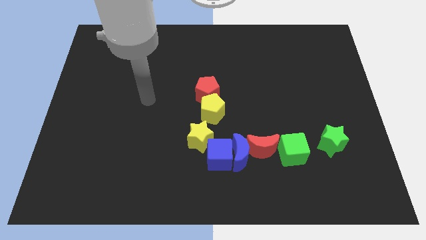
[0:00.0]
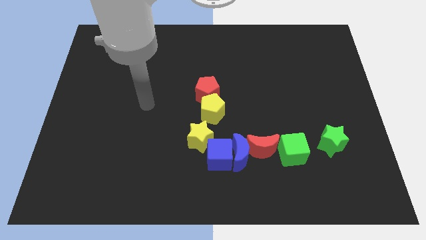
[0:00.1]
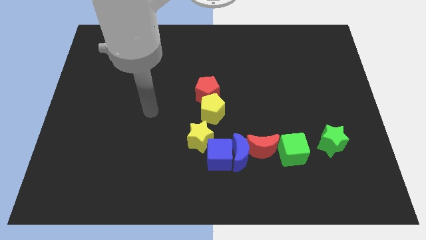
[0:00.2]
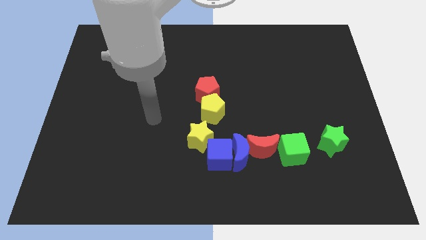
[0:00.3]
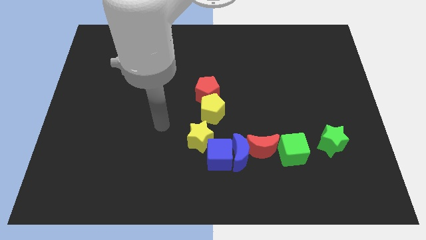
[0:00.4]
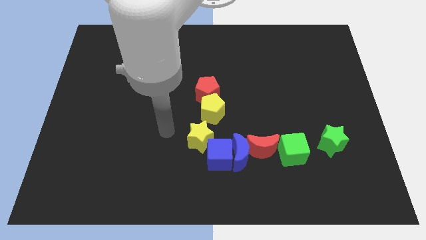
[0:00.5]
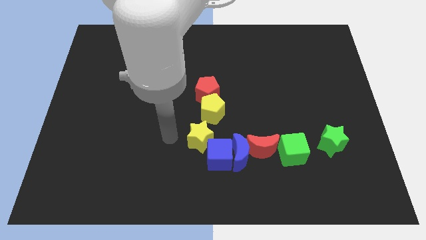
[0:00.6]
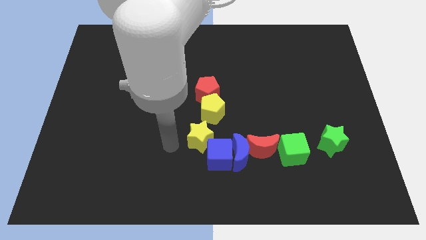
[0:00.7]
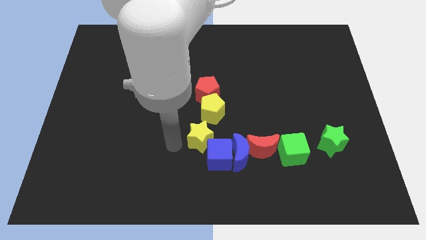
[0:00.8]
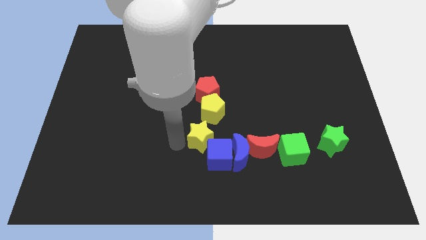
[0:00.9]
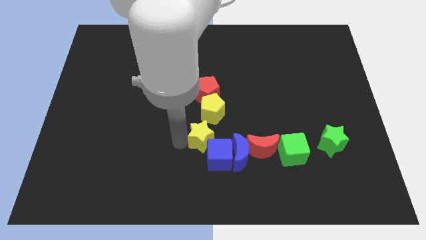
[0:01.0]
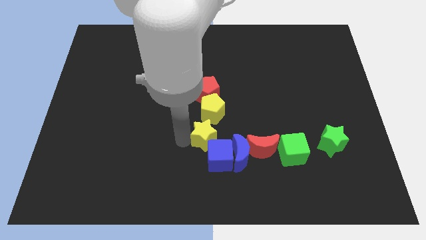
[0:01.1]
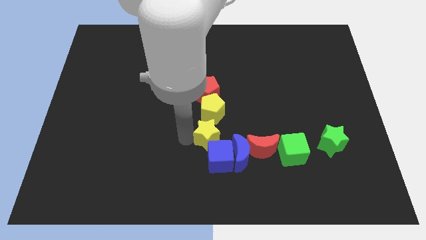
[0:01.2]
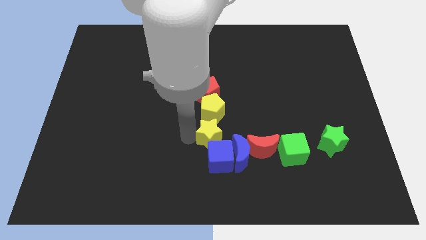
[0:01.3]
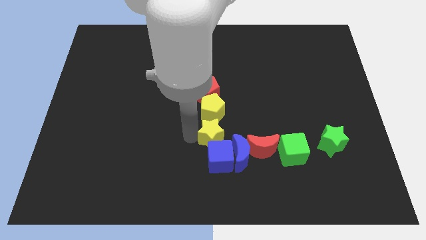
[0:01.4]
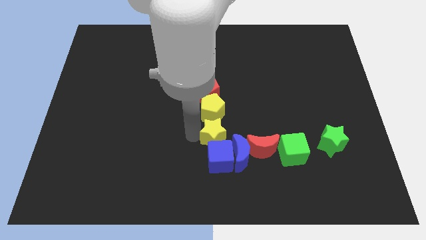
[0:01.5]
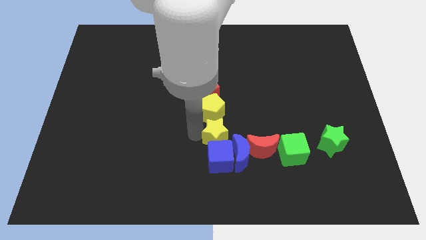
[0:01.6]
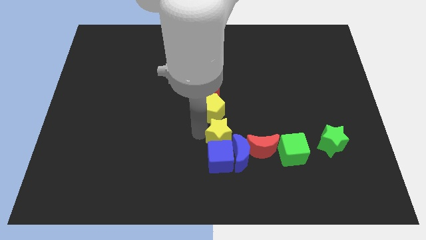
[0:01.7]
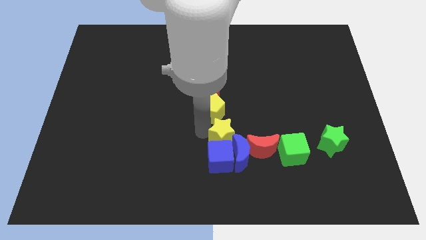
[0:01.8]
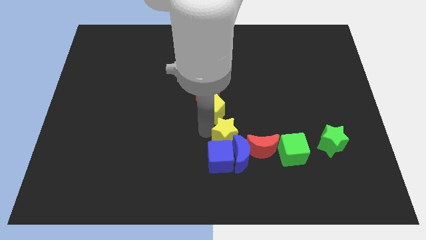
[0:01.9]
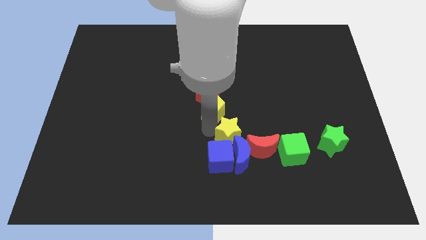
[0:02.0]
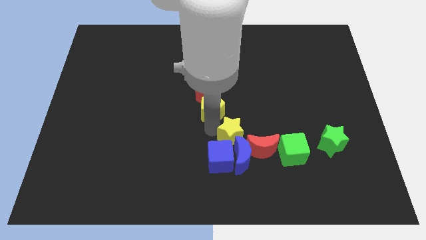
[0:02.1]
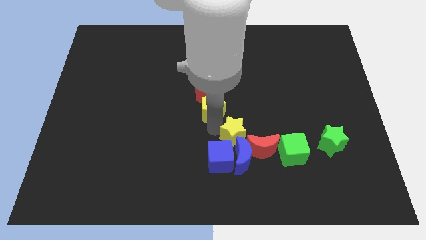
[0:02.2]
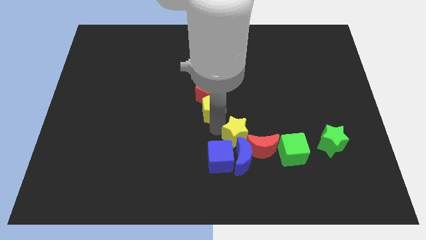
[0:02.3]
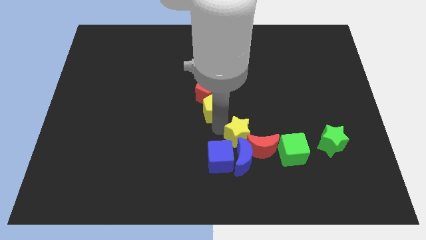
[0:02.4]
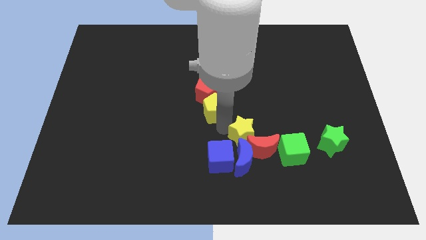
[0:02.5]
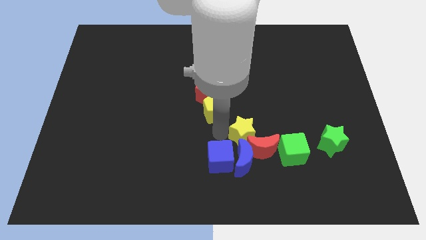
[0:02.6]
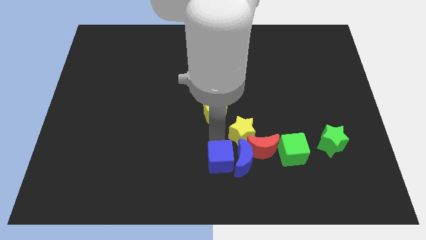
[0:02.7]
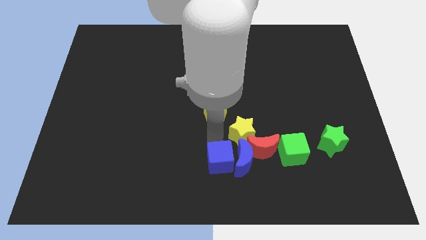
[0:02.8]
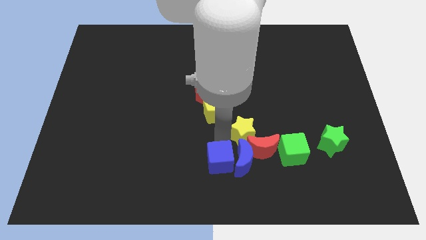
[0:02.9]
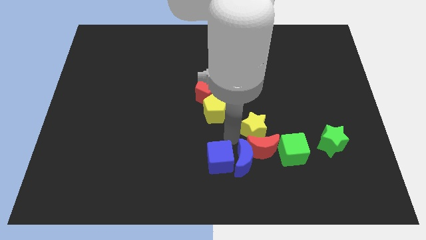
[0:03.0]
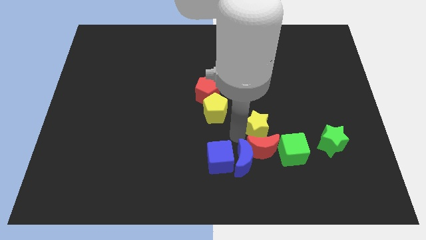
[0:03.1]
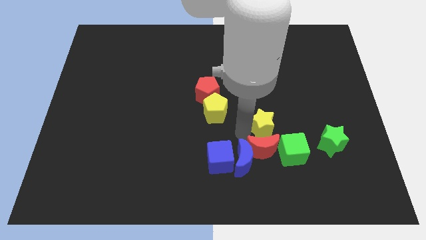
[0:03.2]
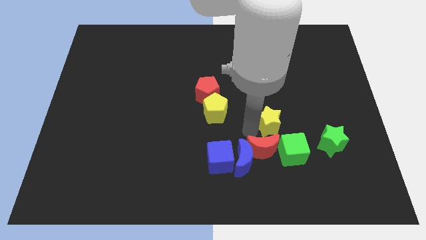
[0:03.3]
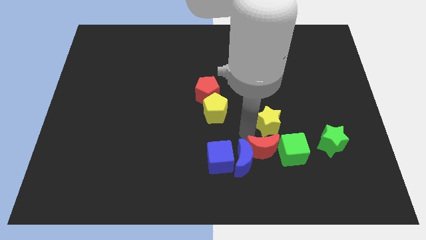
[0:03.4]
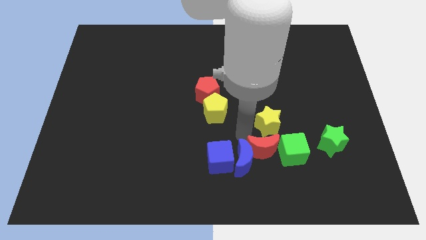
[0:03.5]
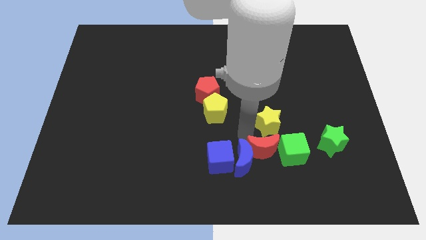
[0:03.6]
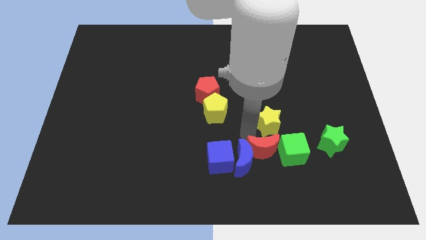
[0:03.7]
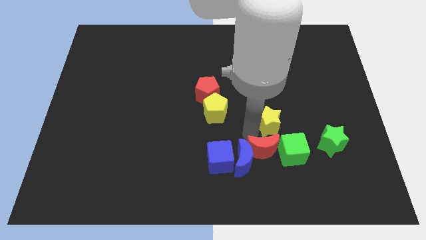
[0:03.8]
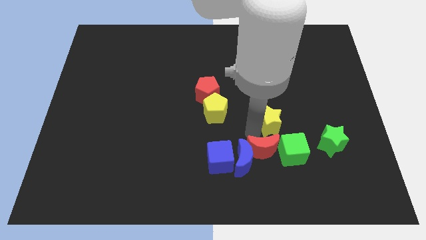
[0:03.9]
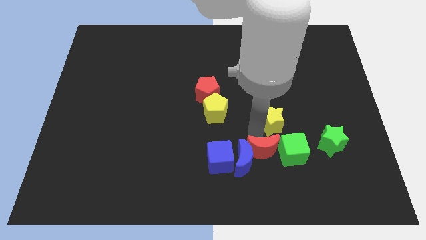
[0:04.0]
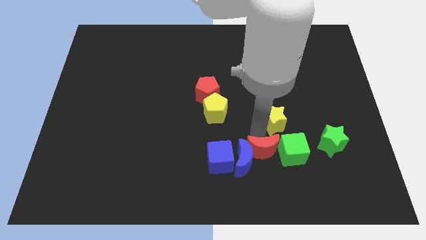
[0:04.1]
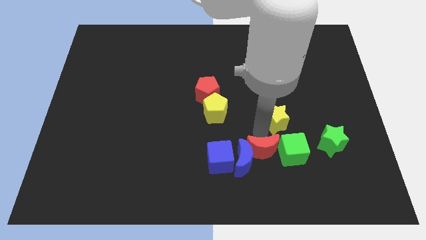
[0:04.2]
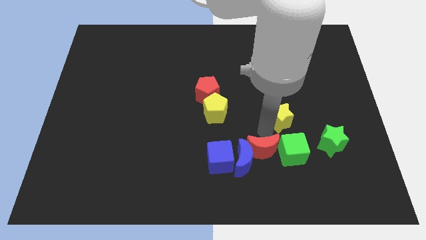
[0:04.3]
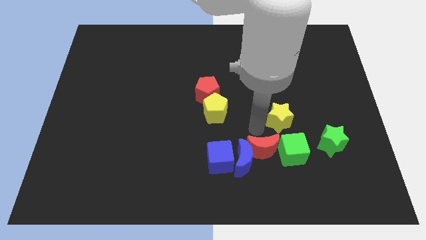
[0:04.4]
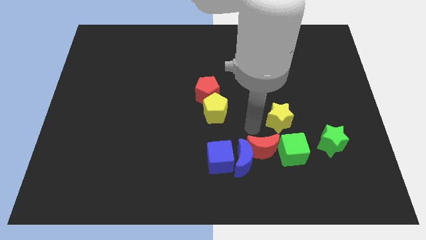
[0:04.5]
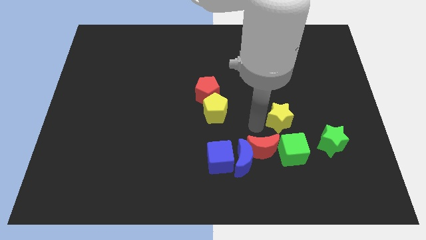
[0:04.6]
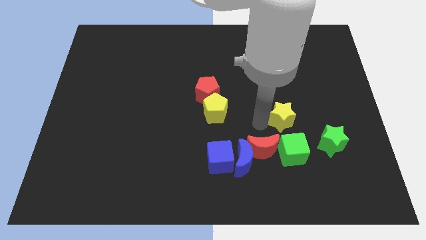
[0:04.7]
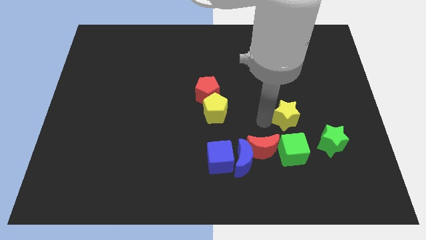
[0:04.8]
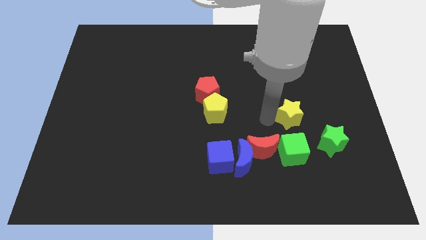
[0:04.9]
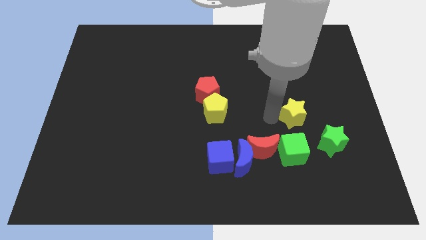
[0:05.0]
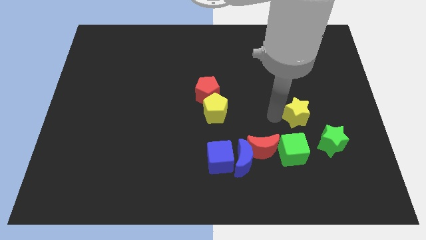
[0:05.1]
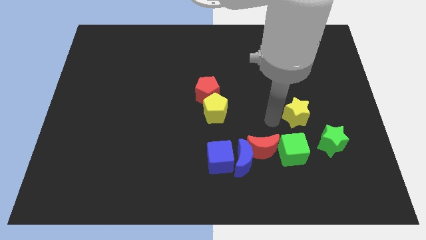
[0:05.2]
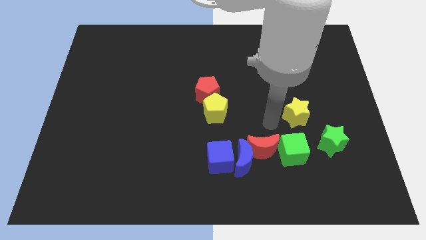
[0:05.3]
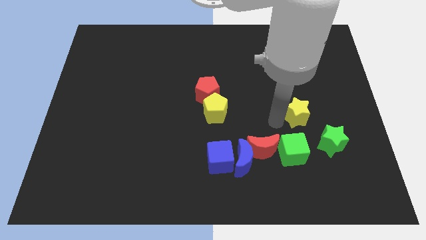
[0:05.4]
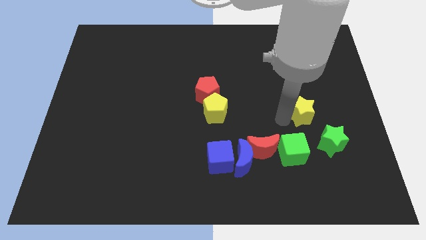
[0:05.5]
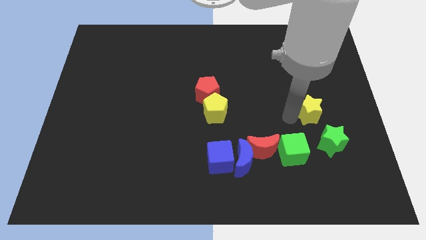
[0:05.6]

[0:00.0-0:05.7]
push the yellow star to the top of the green star
